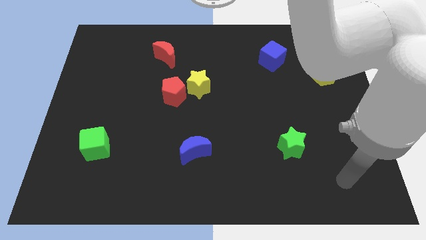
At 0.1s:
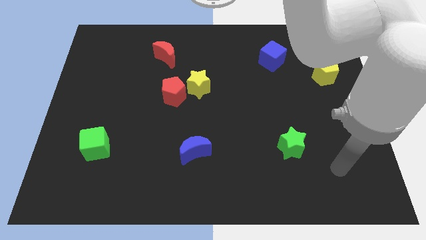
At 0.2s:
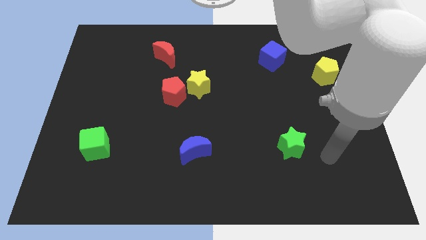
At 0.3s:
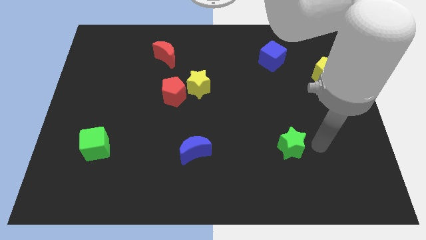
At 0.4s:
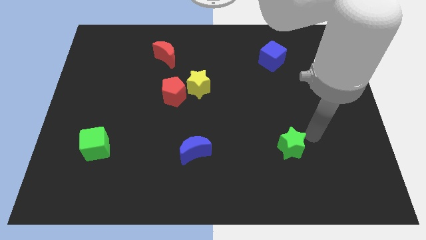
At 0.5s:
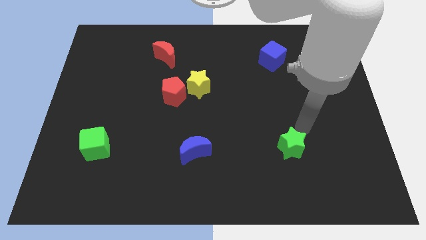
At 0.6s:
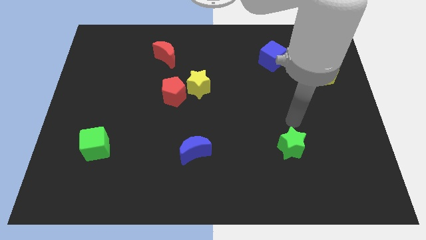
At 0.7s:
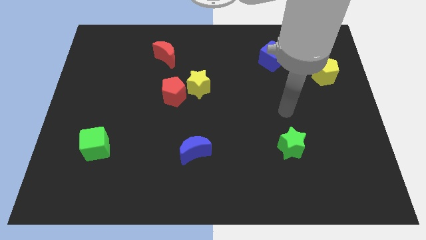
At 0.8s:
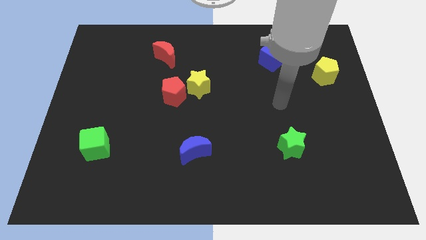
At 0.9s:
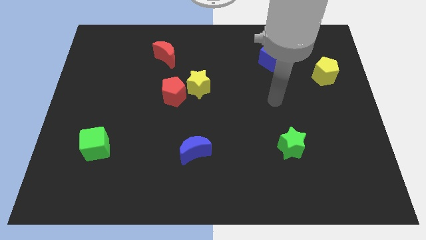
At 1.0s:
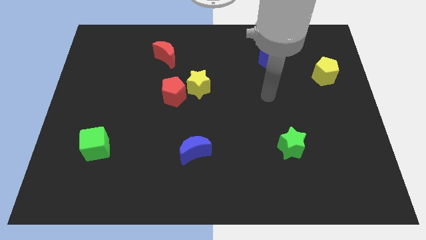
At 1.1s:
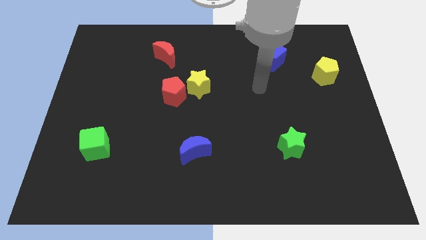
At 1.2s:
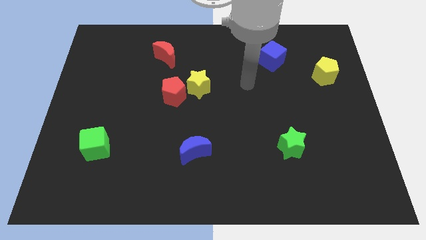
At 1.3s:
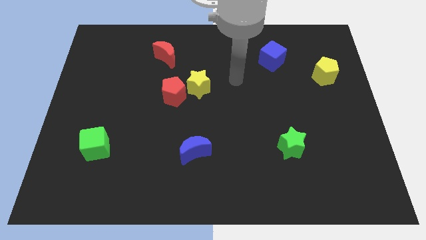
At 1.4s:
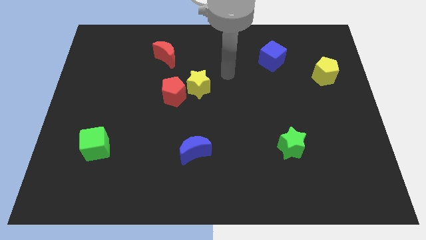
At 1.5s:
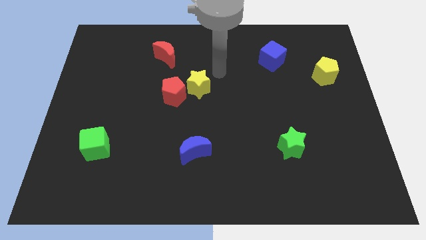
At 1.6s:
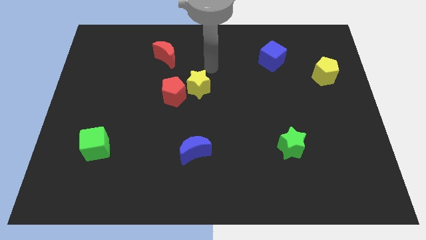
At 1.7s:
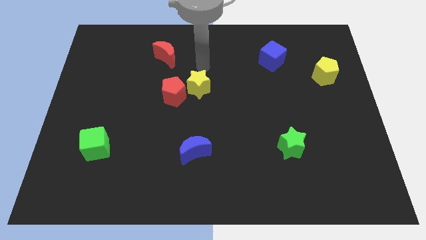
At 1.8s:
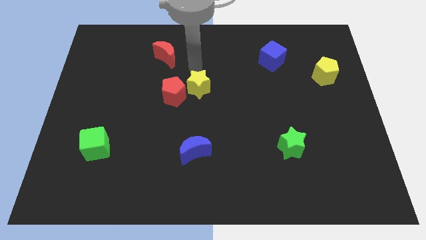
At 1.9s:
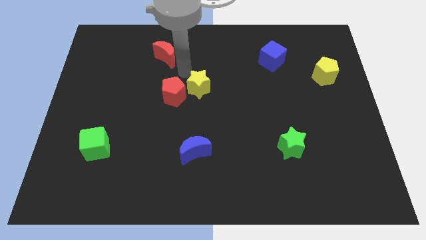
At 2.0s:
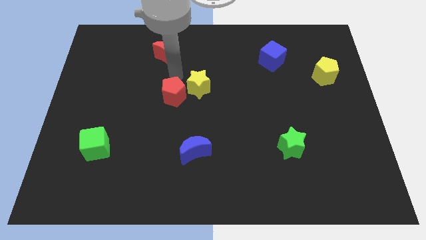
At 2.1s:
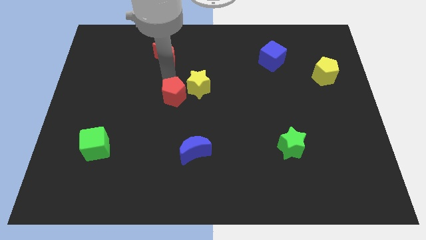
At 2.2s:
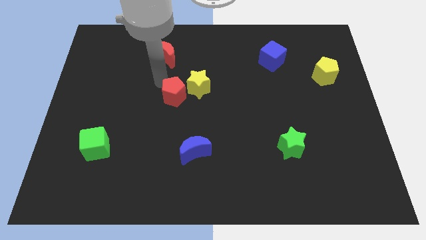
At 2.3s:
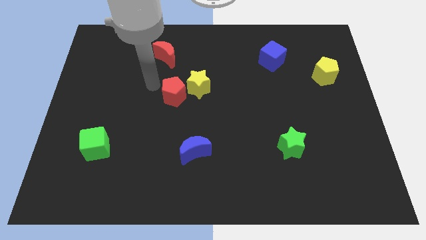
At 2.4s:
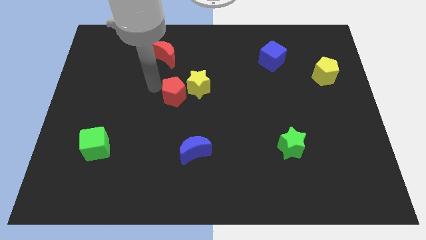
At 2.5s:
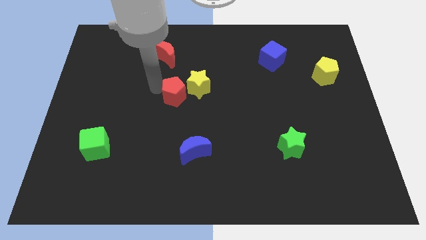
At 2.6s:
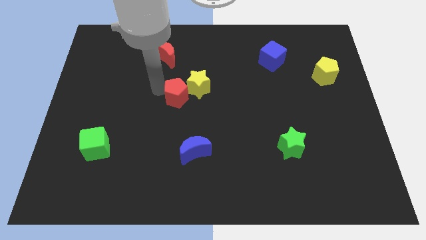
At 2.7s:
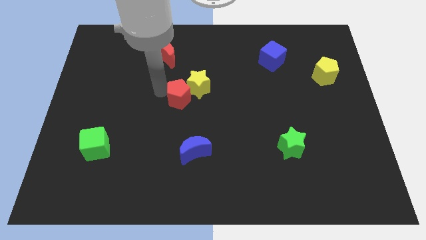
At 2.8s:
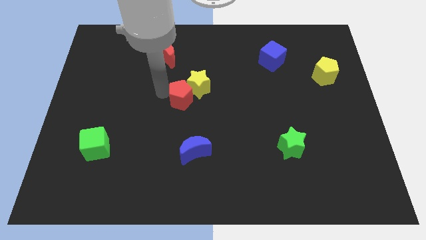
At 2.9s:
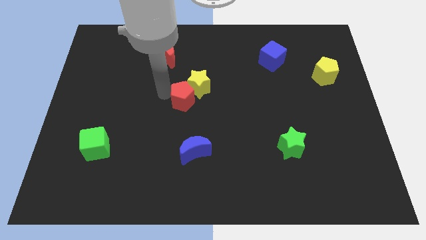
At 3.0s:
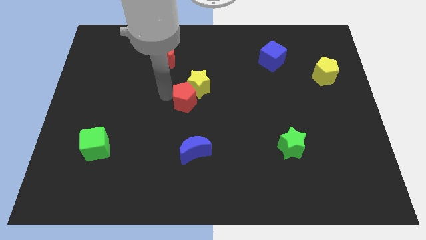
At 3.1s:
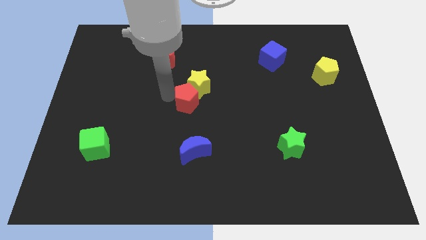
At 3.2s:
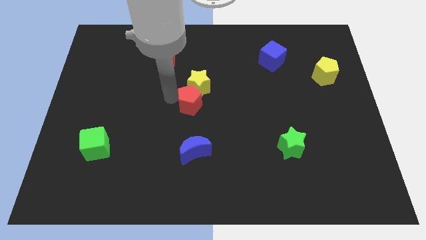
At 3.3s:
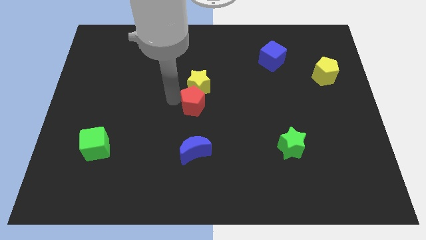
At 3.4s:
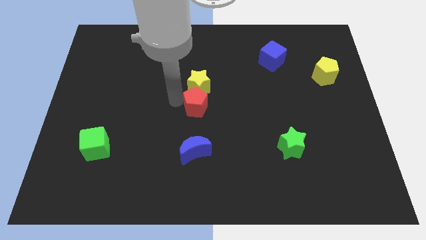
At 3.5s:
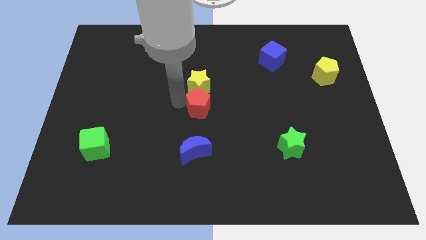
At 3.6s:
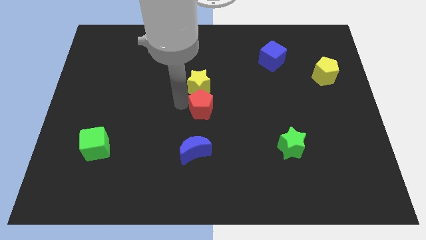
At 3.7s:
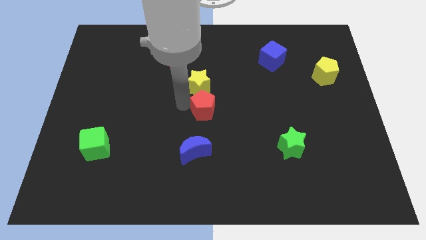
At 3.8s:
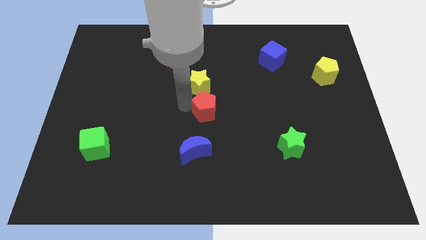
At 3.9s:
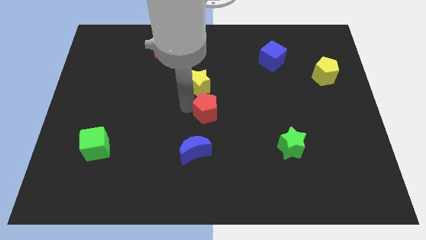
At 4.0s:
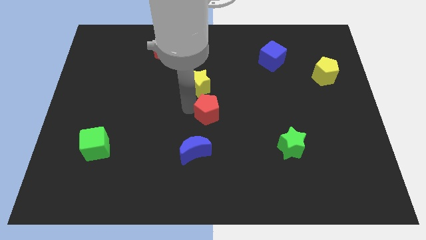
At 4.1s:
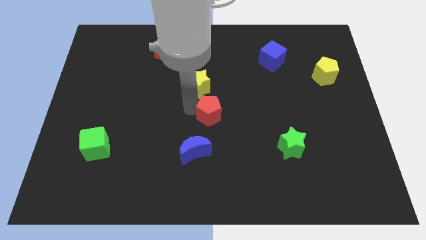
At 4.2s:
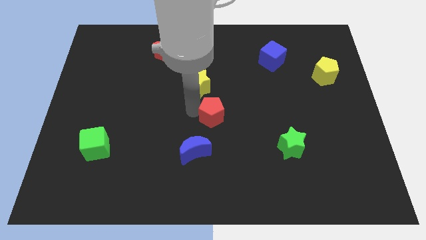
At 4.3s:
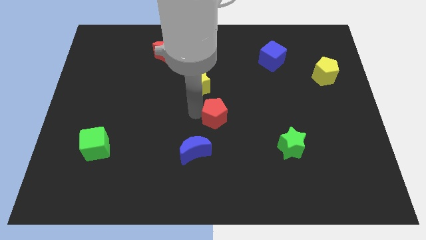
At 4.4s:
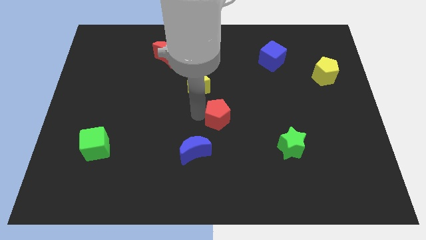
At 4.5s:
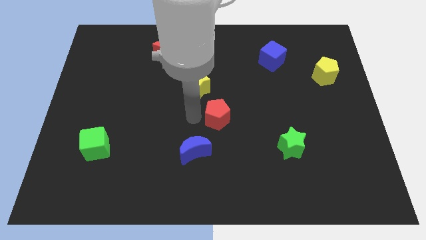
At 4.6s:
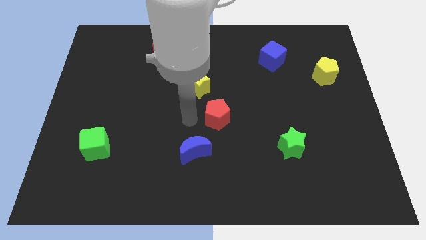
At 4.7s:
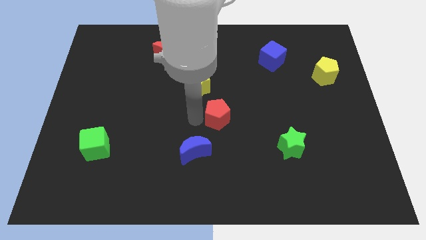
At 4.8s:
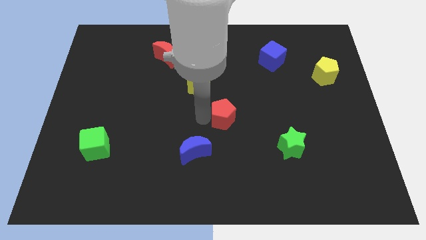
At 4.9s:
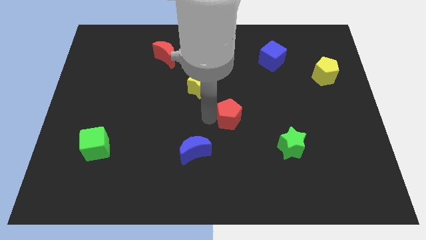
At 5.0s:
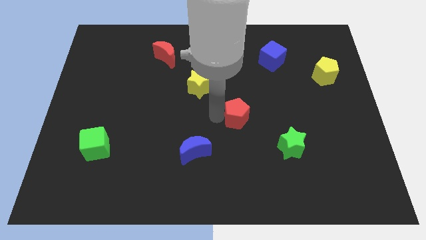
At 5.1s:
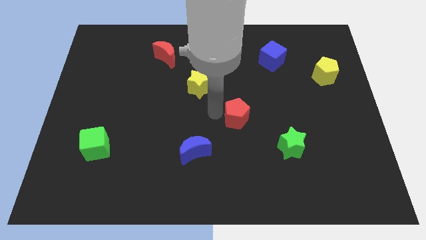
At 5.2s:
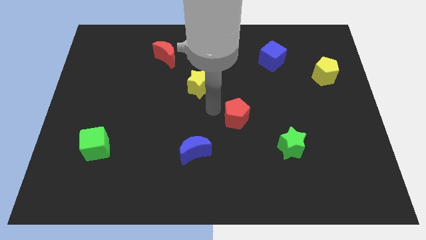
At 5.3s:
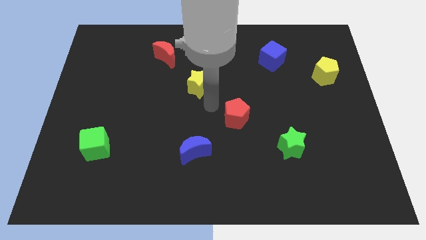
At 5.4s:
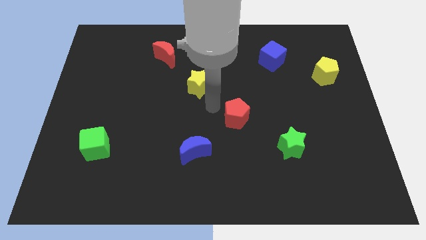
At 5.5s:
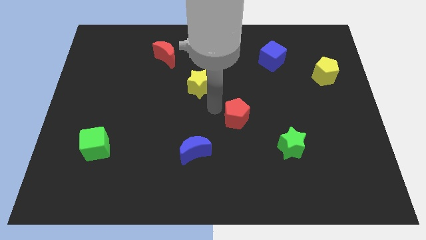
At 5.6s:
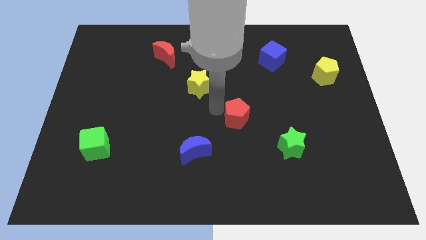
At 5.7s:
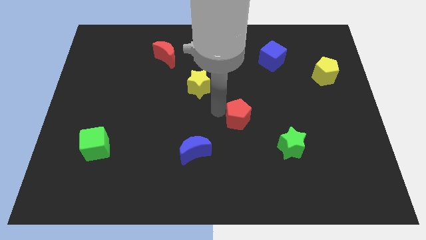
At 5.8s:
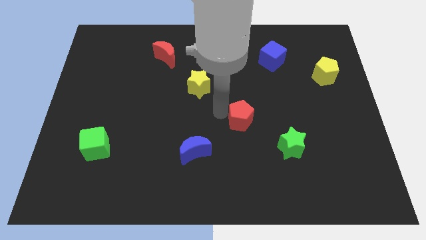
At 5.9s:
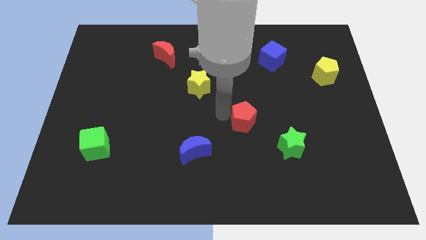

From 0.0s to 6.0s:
put the red pentagon diagonally up and to the left of the green star
